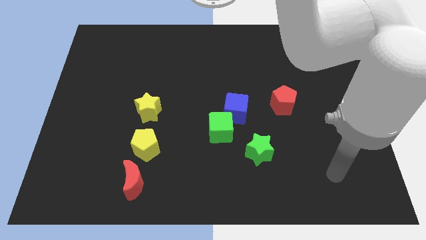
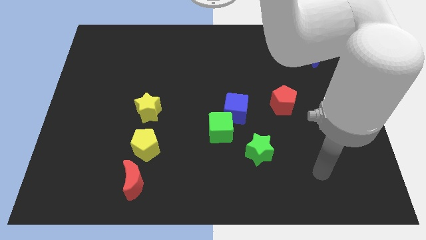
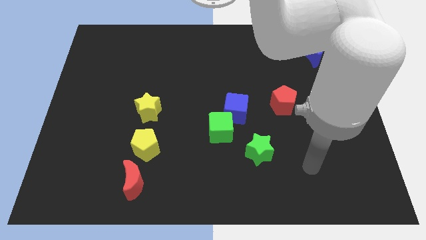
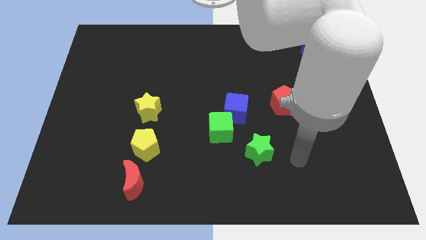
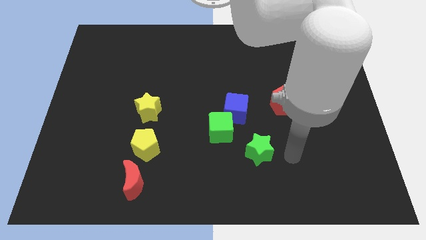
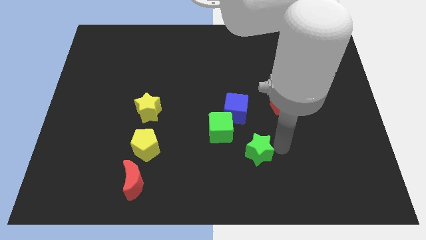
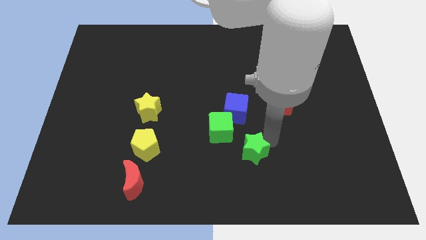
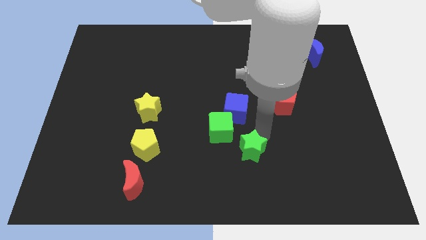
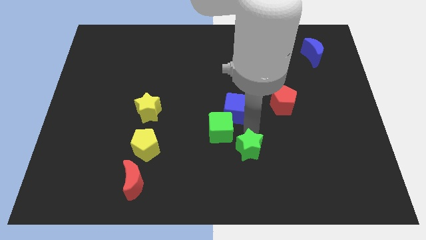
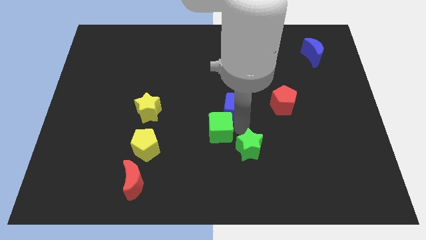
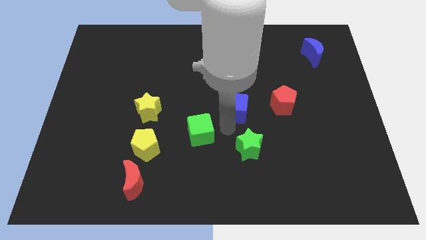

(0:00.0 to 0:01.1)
separate the blue cube from the green cube

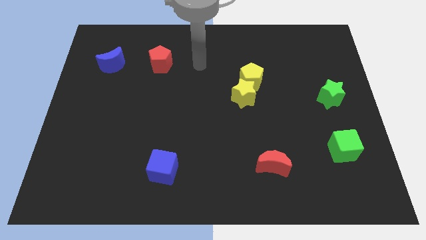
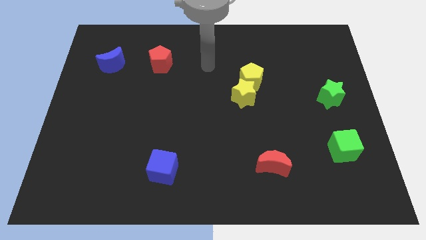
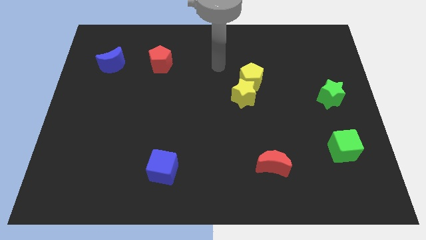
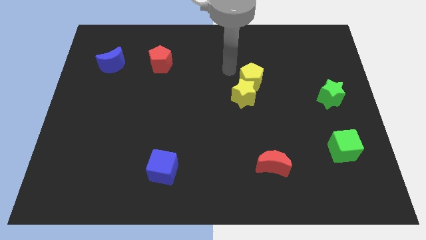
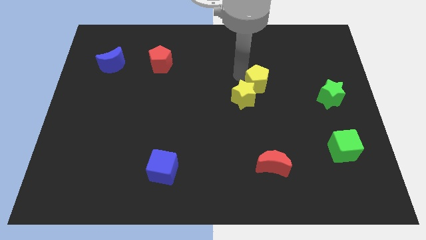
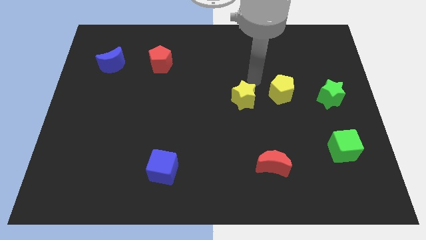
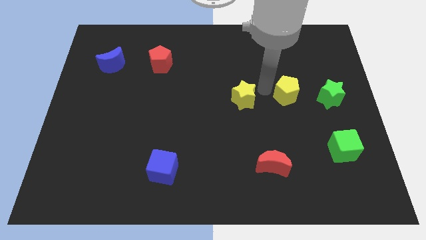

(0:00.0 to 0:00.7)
pull the yellow star apart from the yellow pentagon

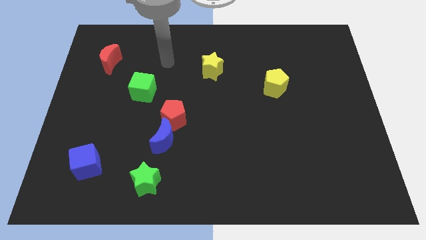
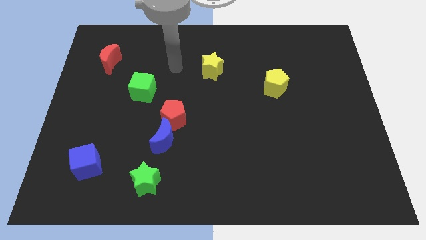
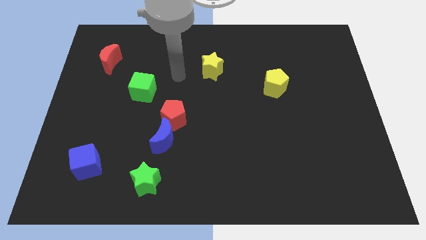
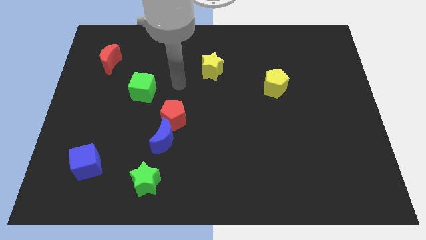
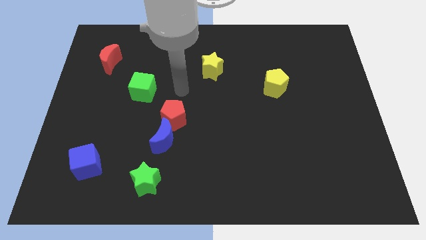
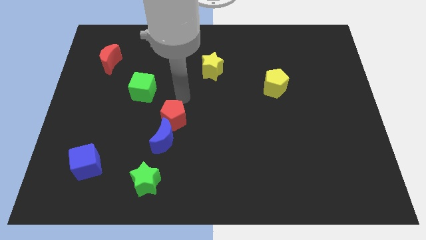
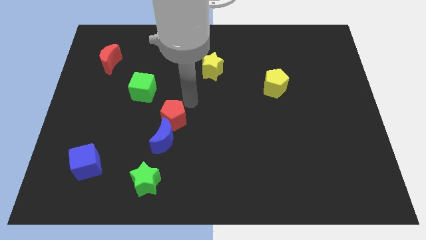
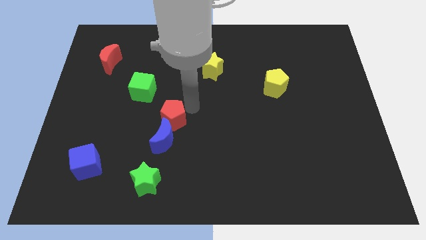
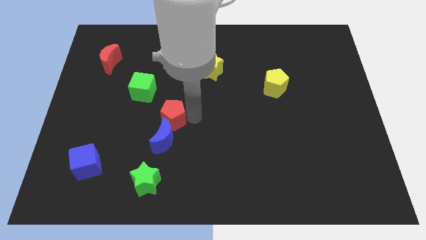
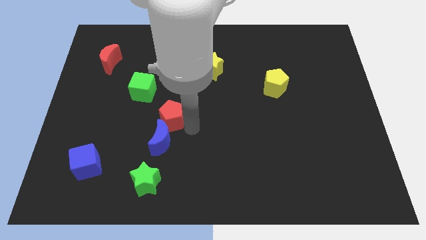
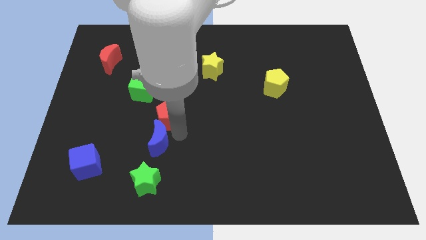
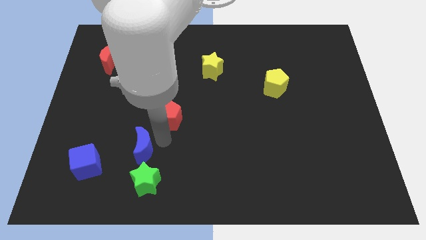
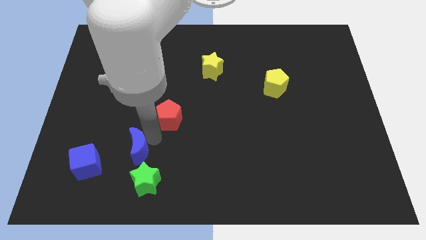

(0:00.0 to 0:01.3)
move the red pentagon away from the blue moon

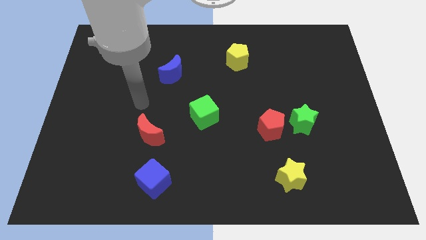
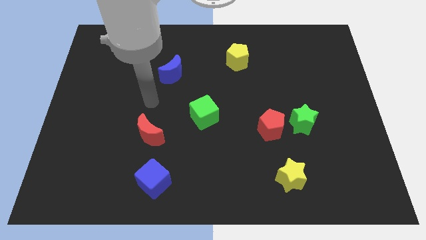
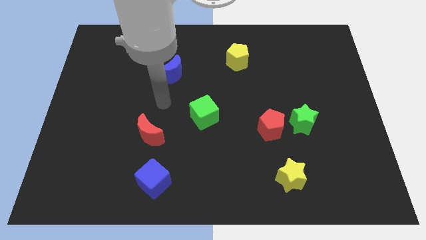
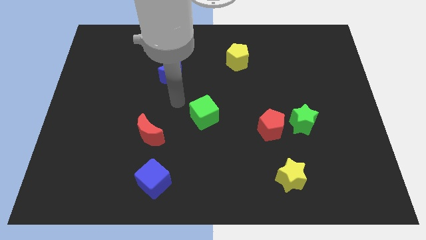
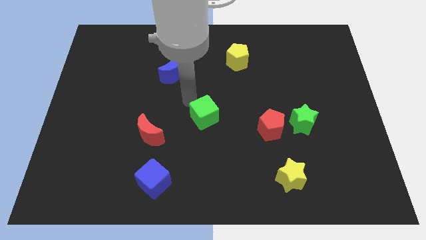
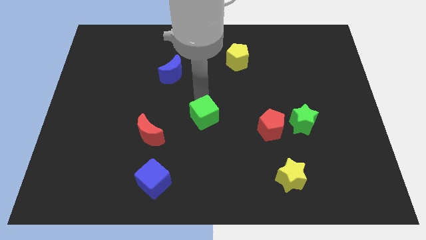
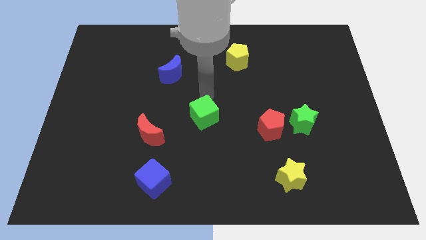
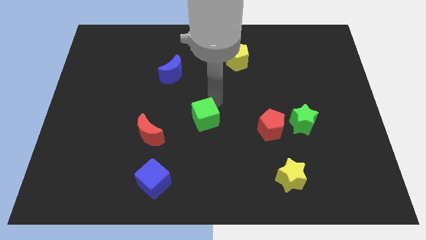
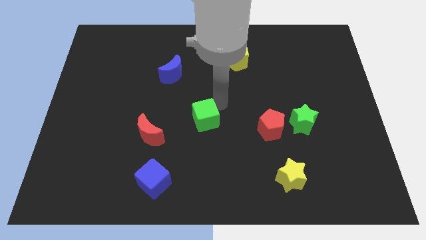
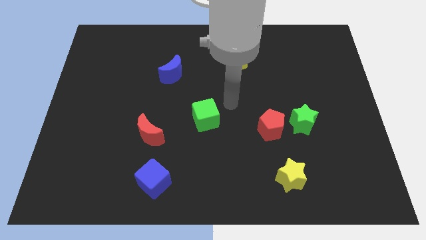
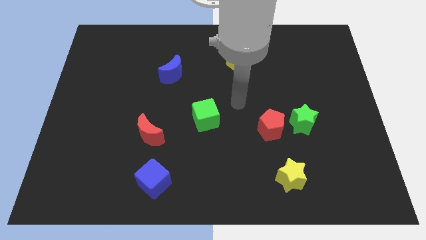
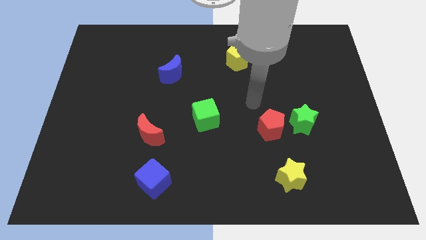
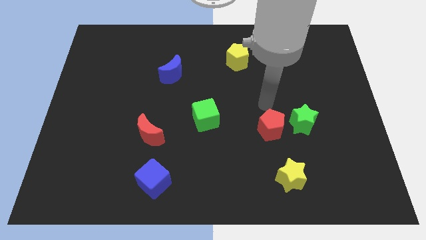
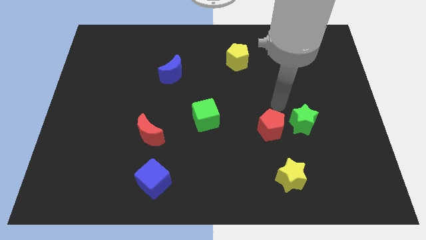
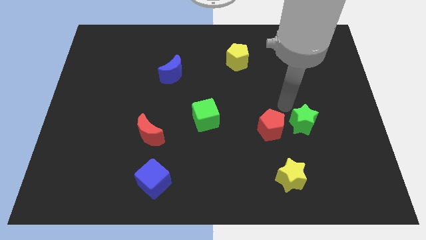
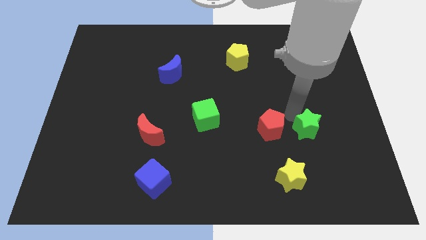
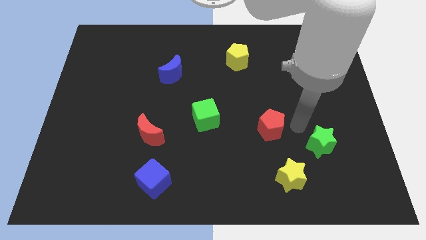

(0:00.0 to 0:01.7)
move the red pentagon away from the green star

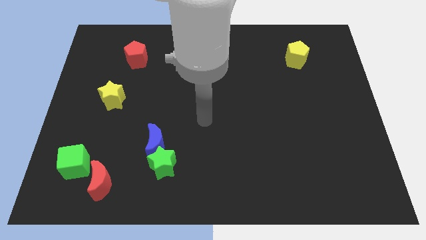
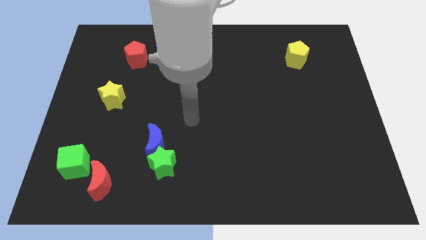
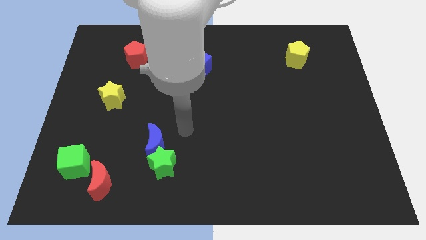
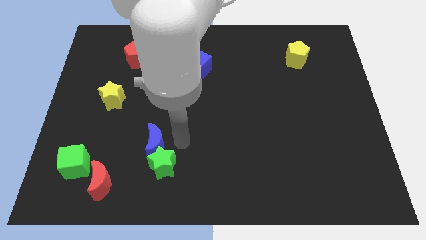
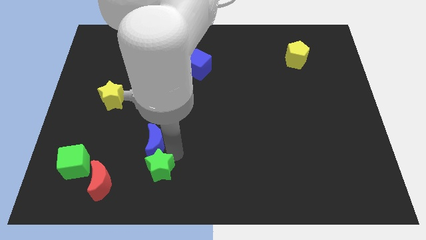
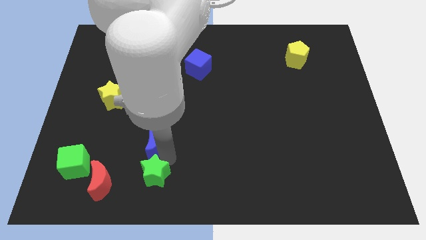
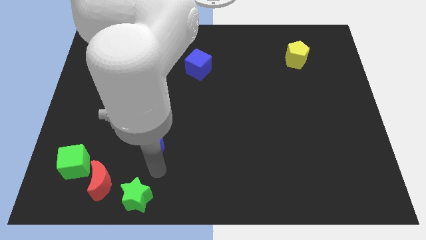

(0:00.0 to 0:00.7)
pull the blue moon apart from the green star

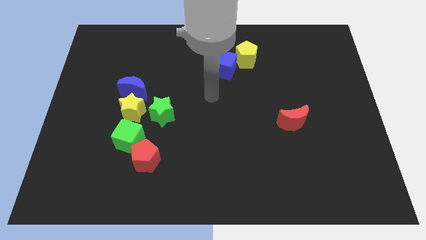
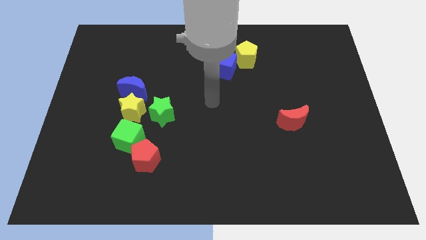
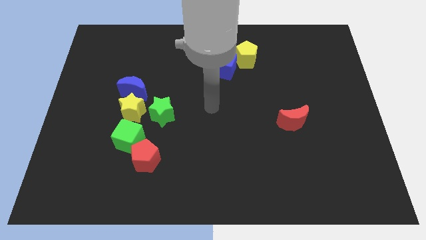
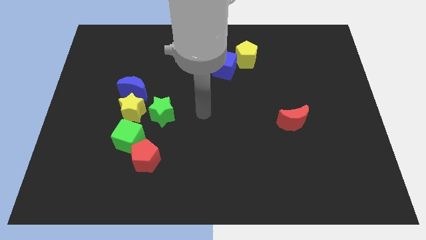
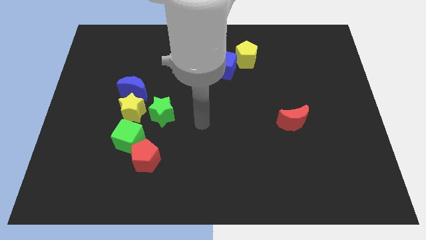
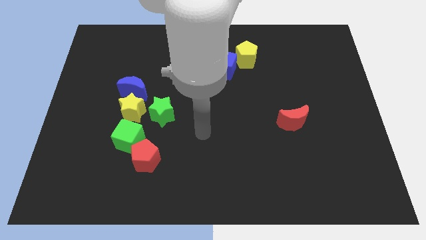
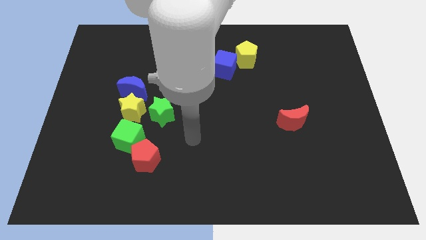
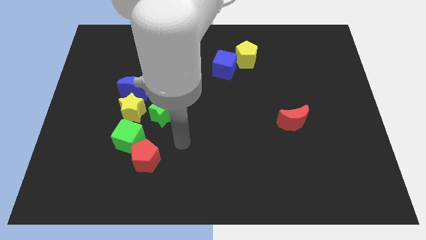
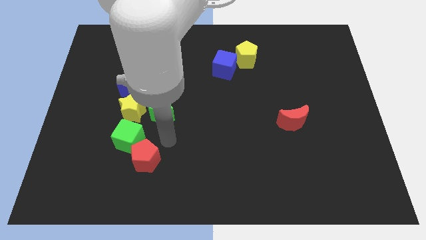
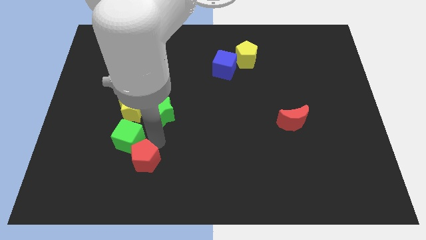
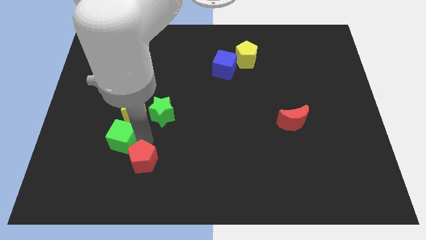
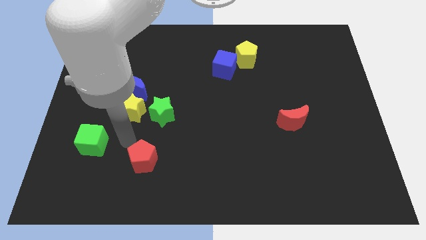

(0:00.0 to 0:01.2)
move the red pentagon away from the green cube

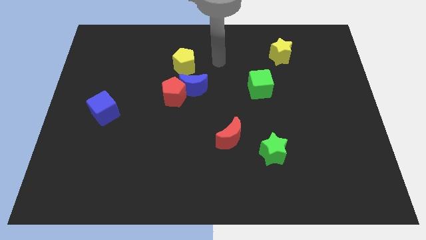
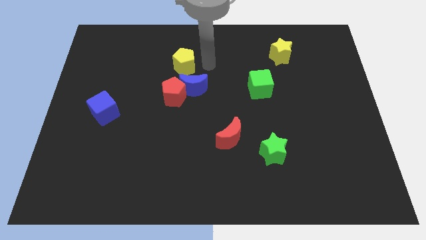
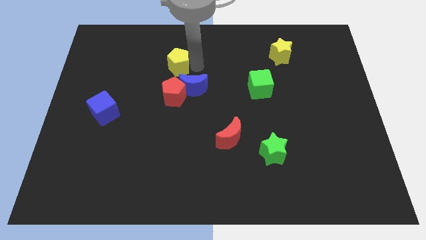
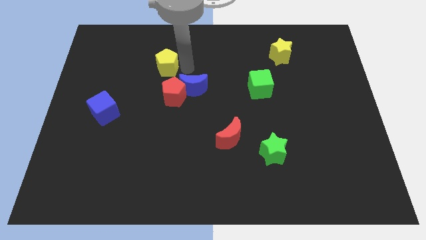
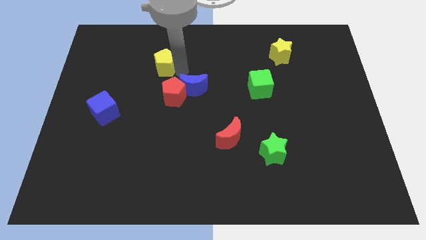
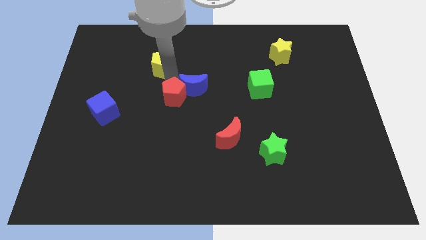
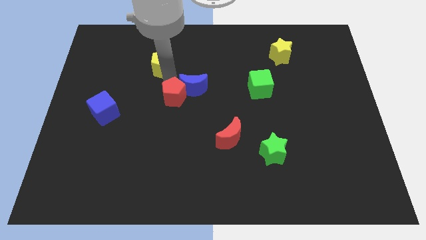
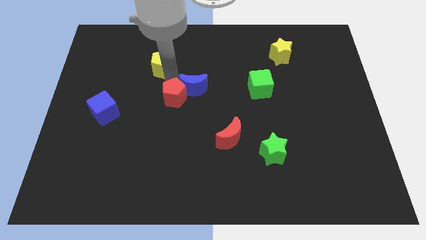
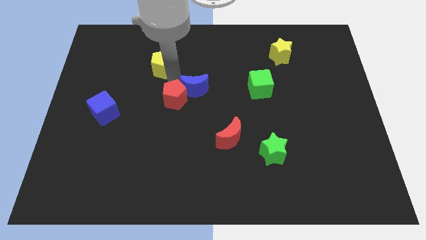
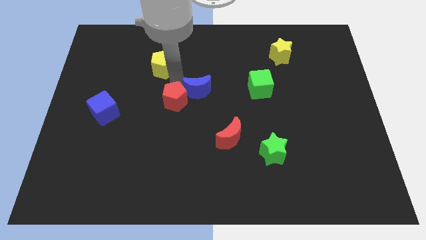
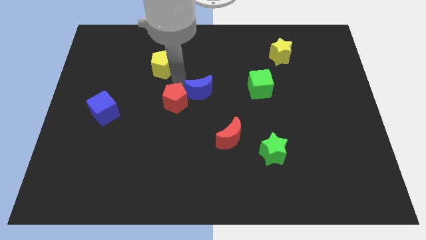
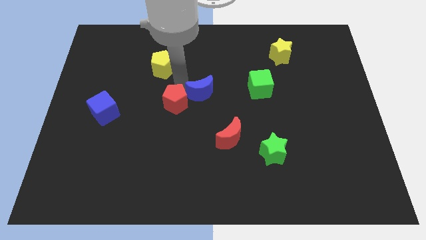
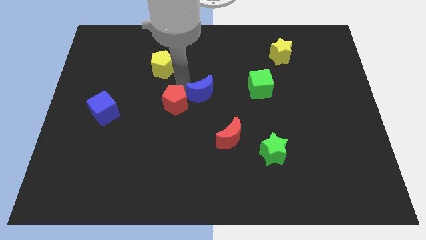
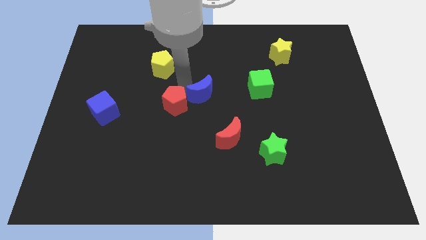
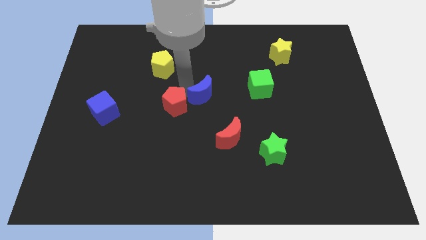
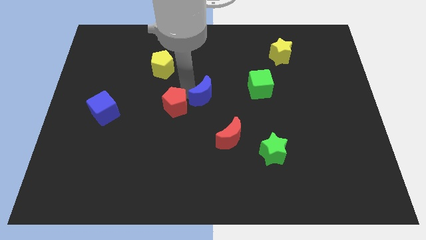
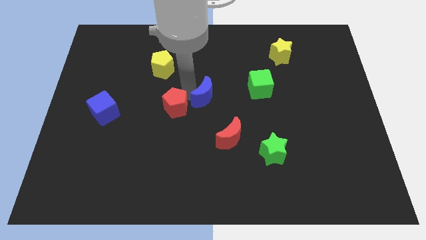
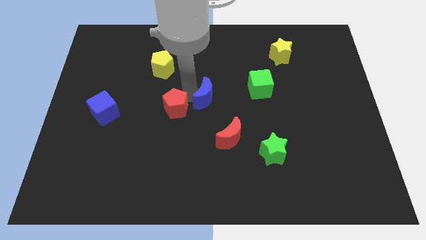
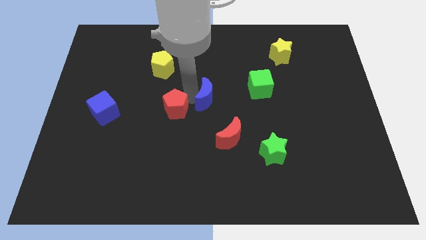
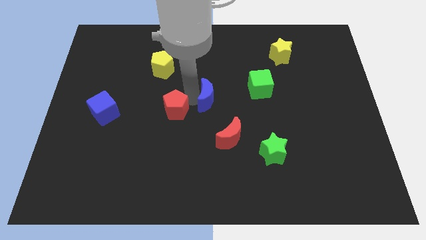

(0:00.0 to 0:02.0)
pull the blue moon apart from the red pentagon and yellow pentagon

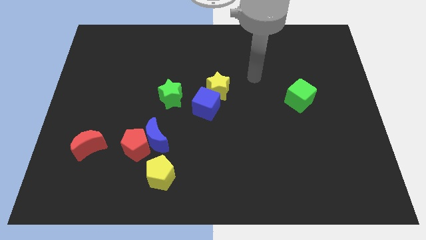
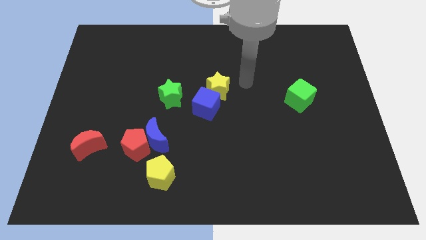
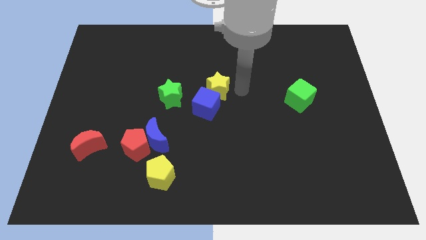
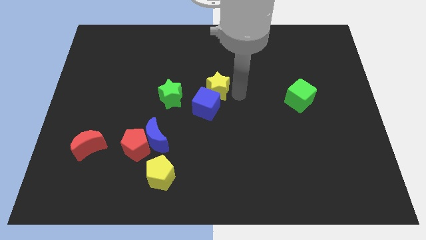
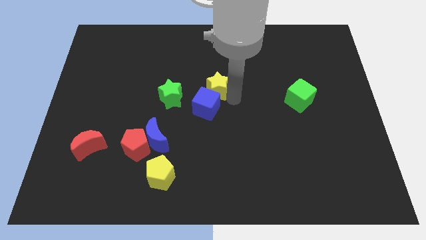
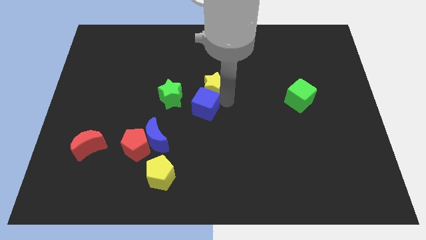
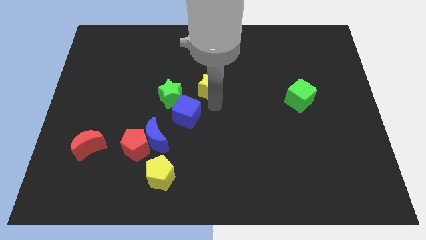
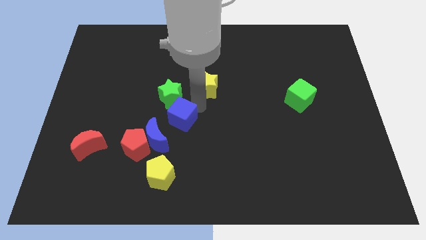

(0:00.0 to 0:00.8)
separate the yellow star from the blue cube
